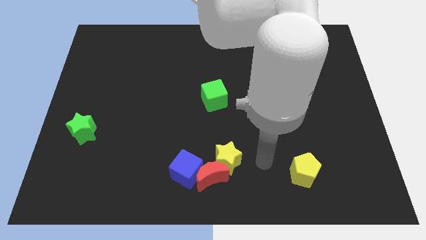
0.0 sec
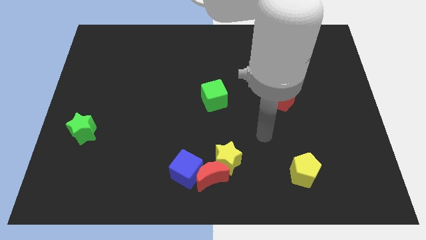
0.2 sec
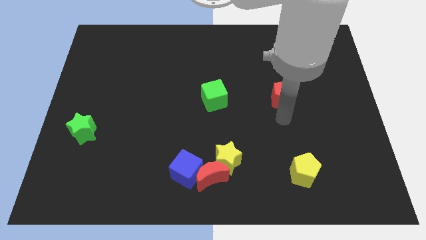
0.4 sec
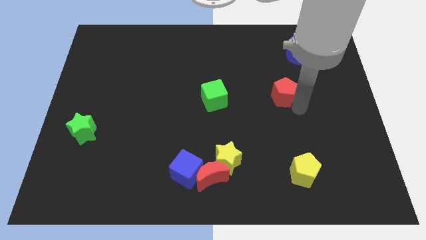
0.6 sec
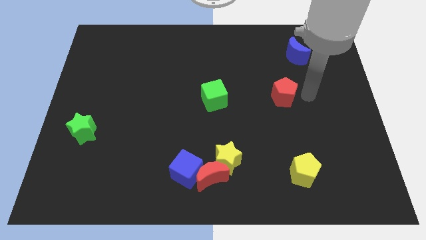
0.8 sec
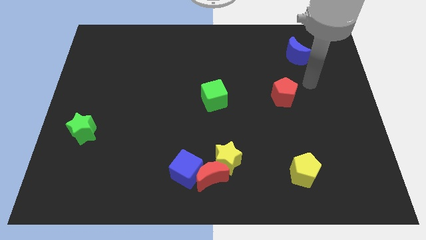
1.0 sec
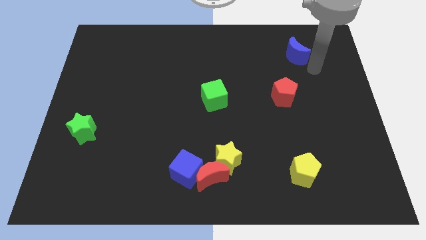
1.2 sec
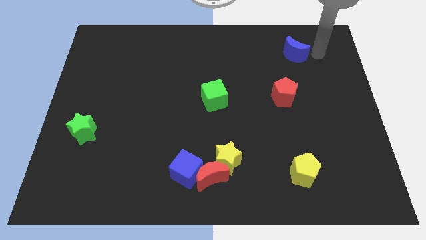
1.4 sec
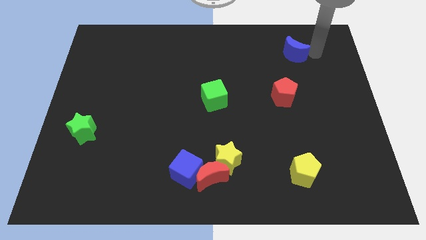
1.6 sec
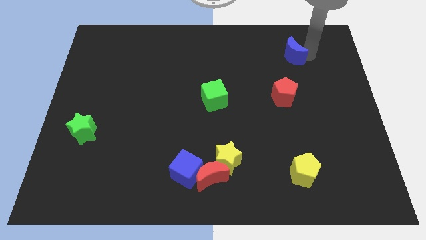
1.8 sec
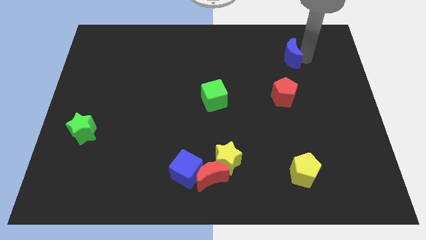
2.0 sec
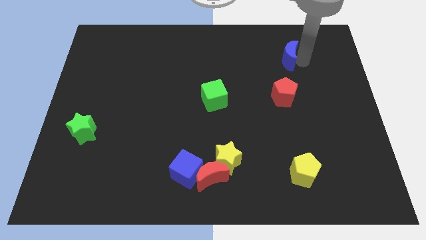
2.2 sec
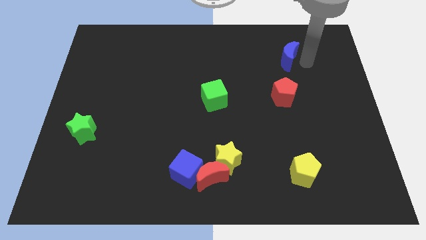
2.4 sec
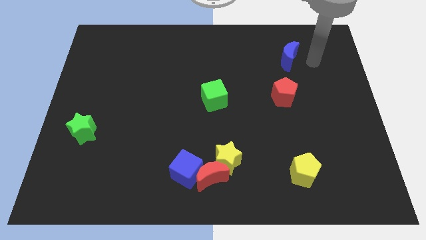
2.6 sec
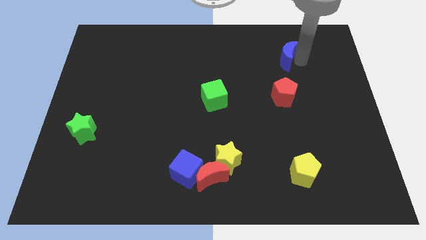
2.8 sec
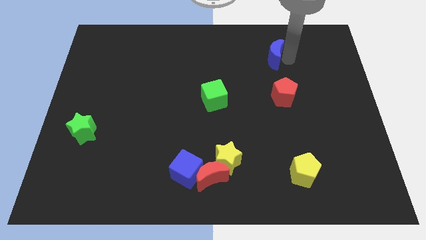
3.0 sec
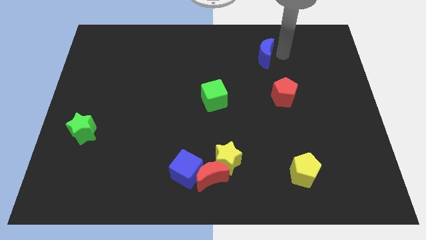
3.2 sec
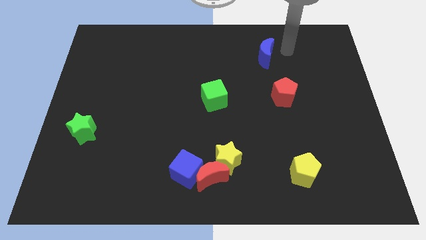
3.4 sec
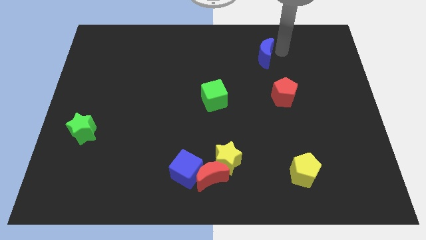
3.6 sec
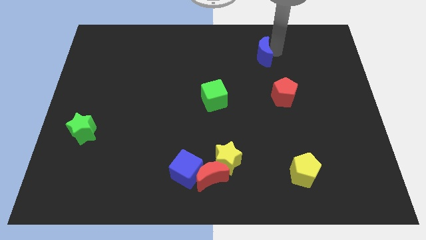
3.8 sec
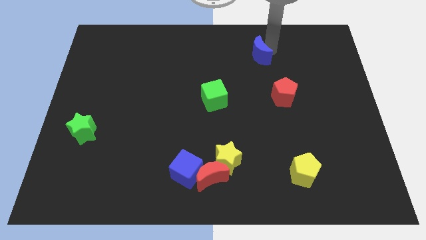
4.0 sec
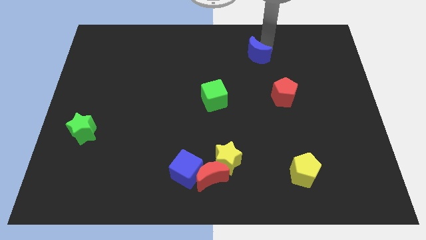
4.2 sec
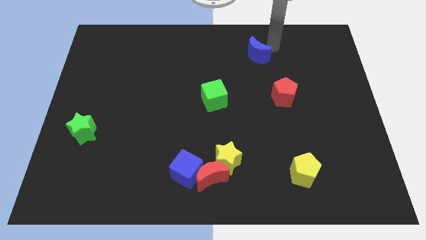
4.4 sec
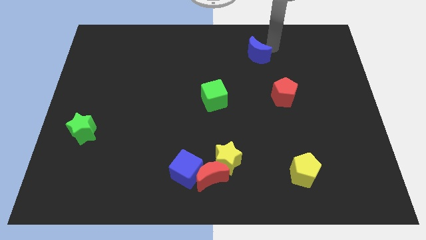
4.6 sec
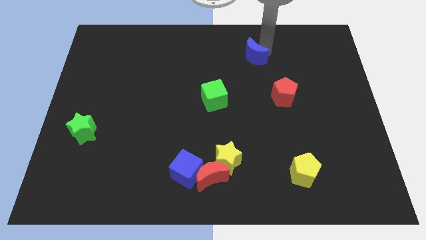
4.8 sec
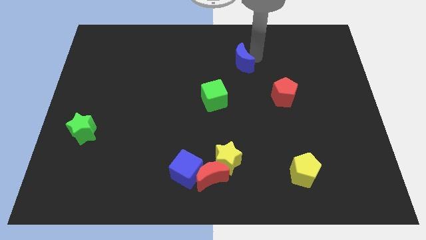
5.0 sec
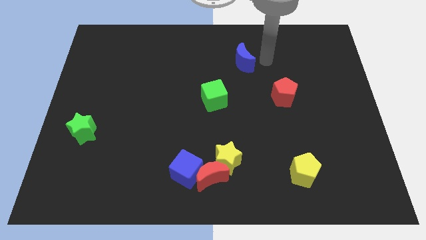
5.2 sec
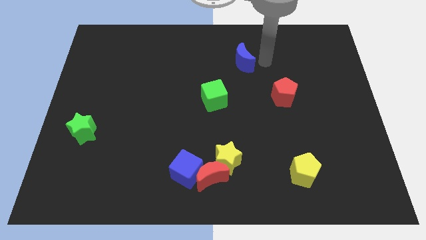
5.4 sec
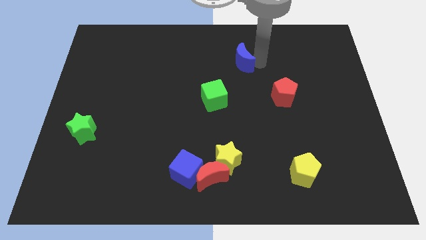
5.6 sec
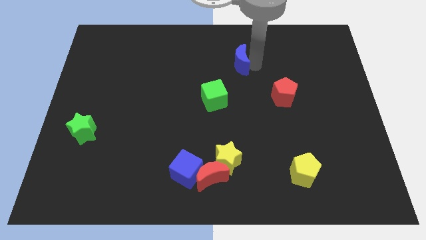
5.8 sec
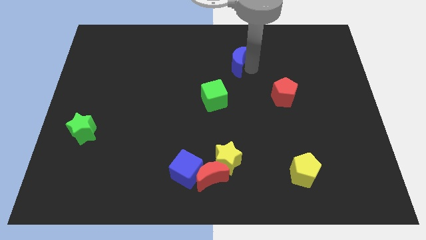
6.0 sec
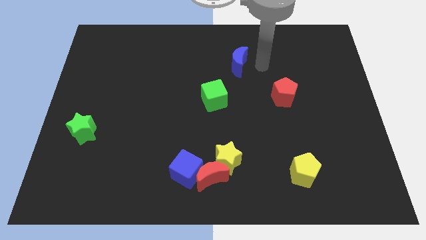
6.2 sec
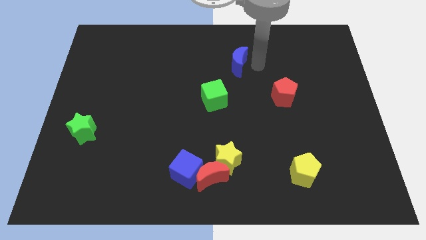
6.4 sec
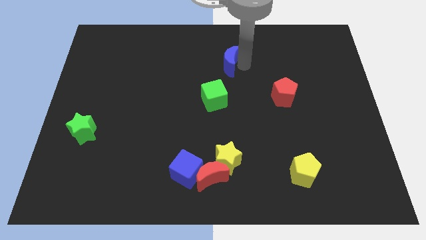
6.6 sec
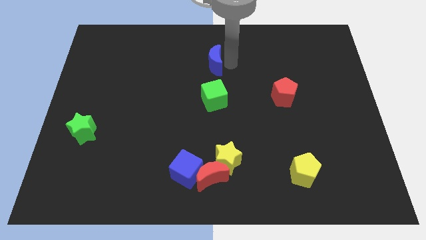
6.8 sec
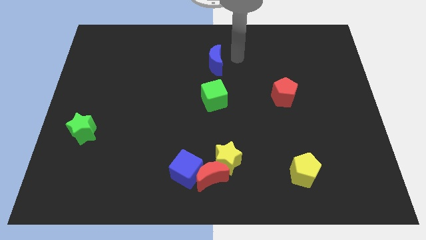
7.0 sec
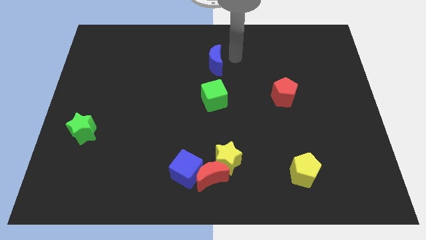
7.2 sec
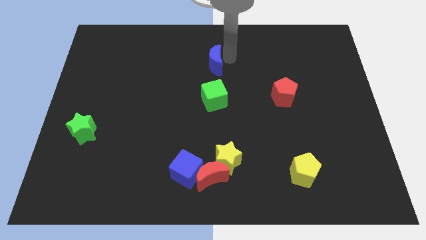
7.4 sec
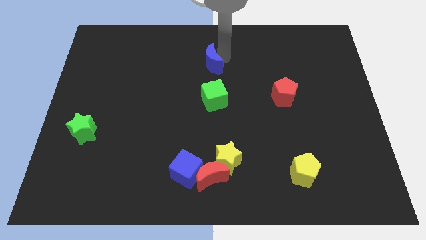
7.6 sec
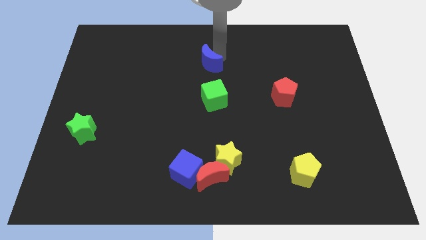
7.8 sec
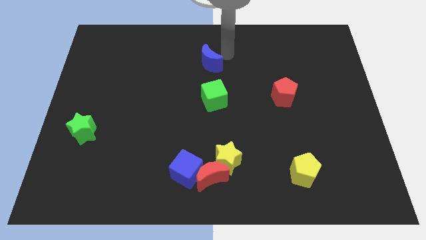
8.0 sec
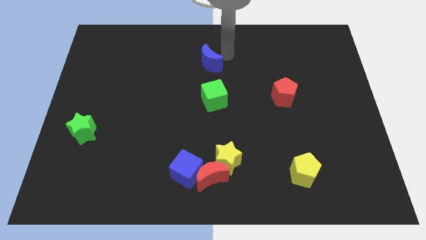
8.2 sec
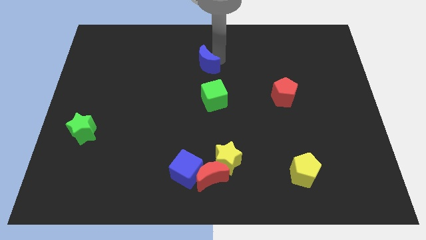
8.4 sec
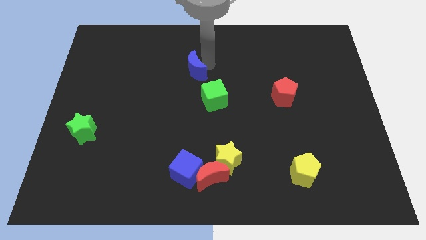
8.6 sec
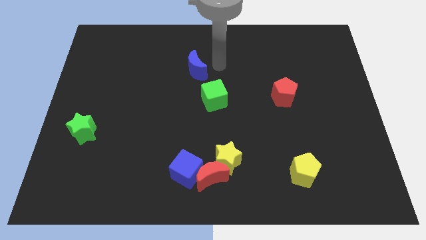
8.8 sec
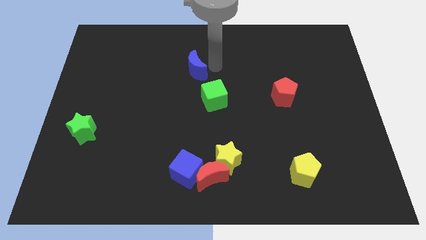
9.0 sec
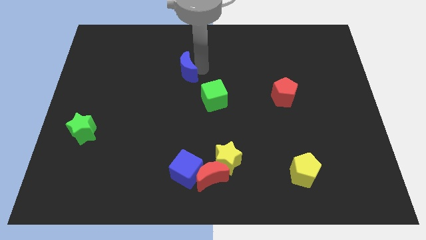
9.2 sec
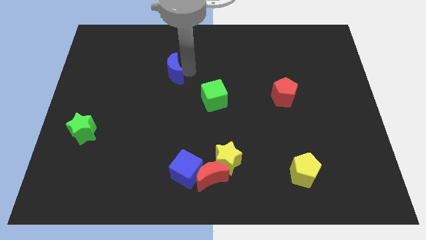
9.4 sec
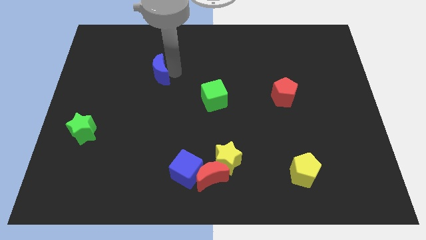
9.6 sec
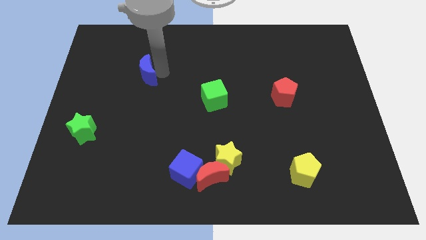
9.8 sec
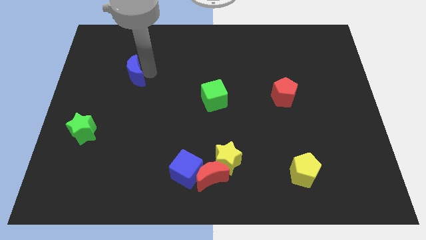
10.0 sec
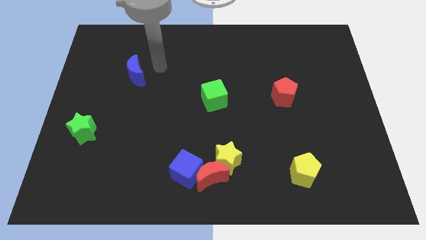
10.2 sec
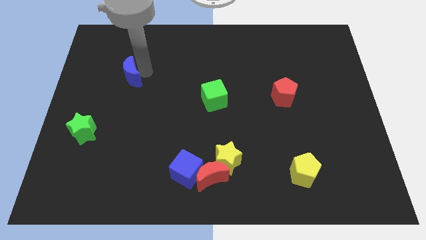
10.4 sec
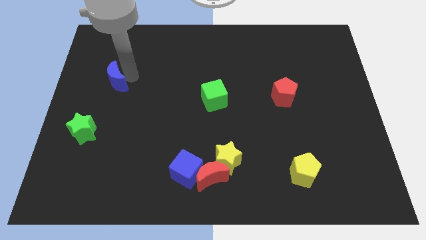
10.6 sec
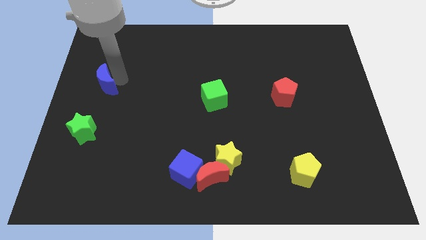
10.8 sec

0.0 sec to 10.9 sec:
move the blue moon to the center left
